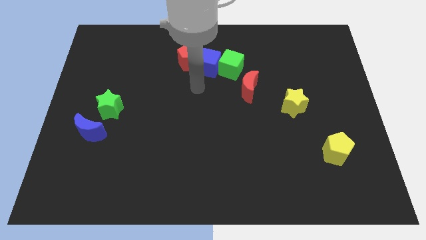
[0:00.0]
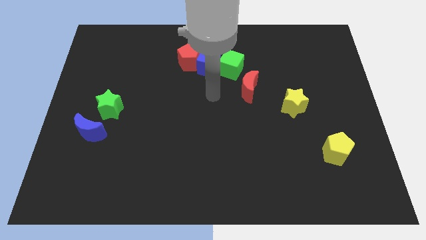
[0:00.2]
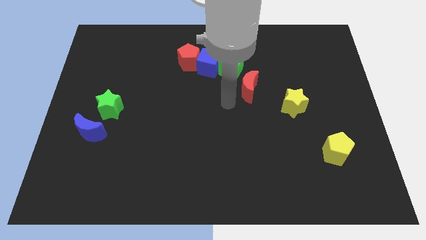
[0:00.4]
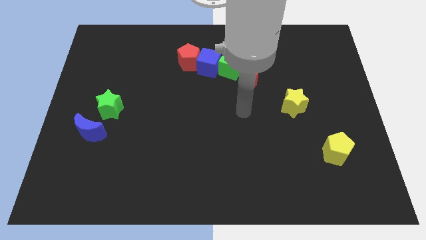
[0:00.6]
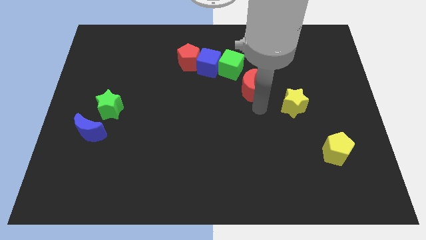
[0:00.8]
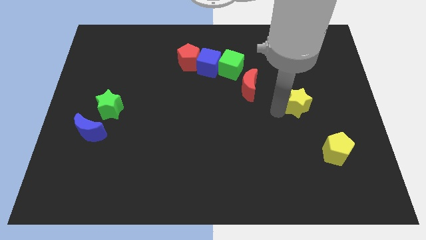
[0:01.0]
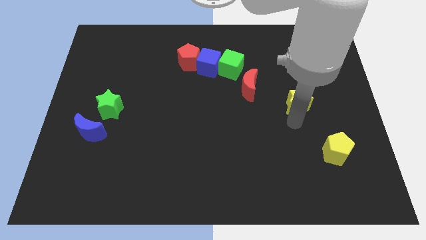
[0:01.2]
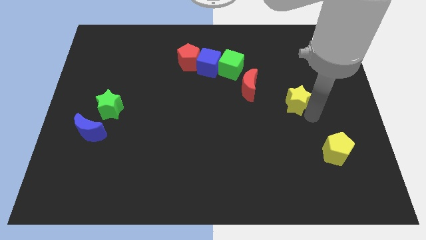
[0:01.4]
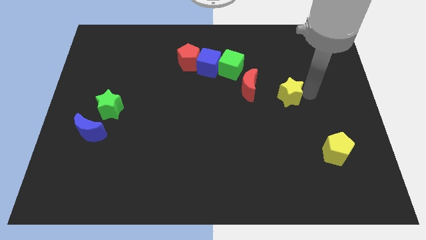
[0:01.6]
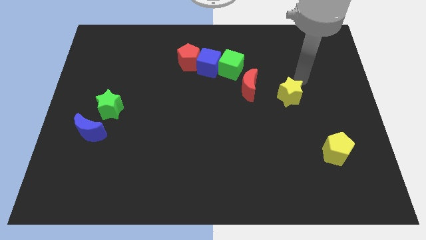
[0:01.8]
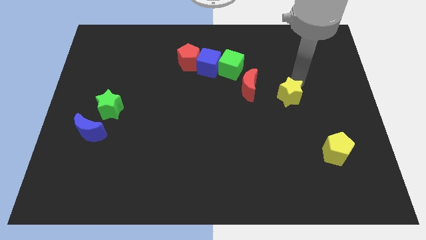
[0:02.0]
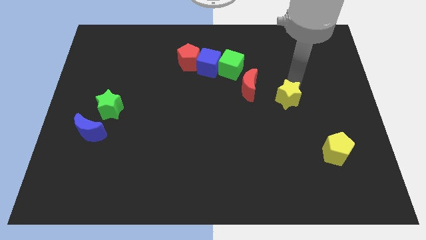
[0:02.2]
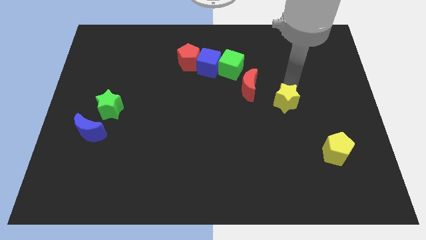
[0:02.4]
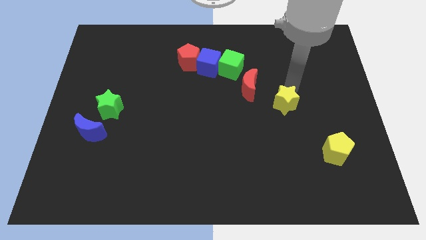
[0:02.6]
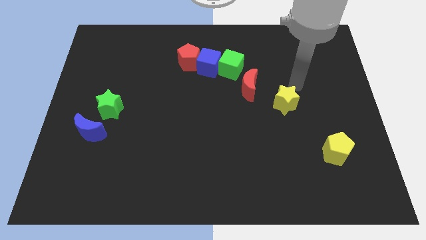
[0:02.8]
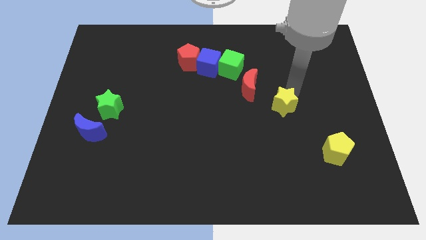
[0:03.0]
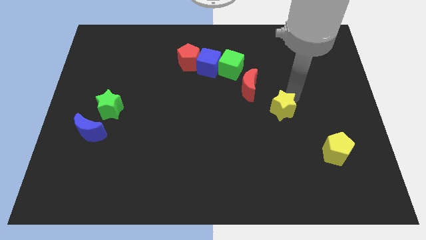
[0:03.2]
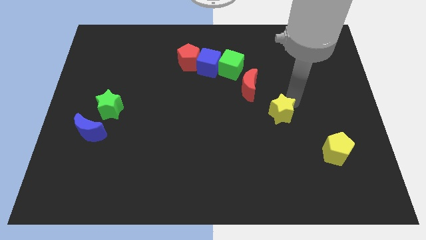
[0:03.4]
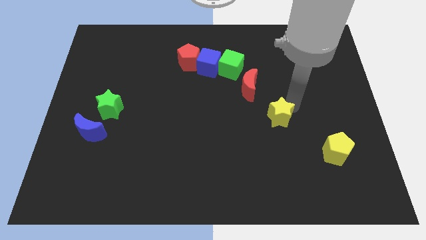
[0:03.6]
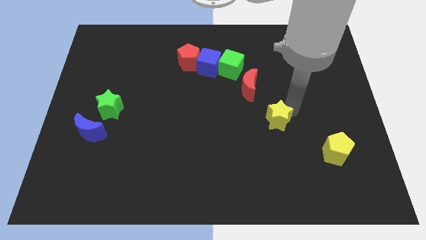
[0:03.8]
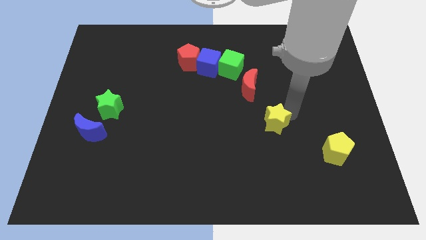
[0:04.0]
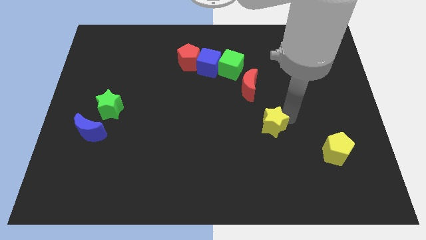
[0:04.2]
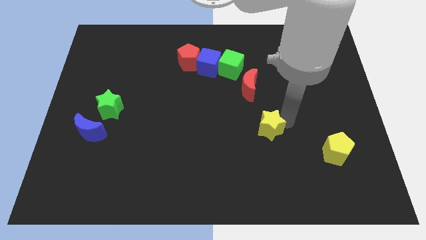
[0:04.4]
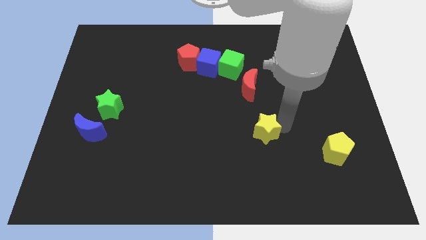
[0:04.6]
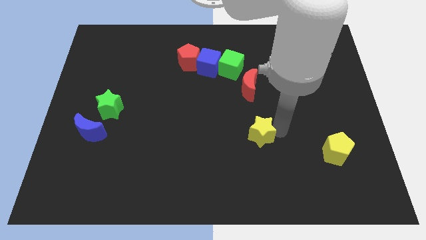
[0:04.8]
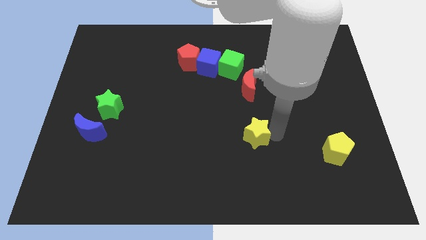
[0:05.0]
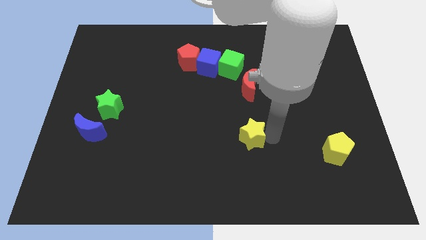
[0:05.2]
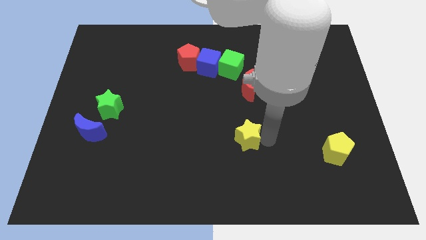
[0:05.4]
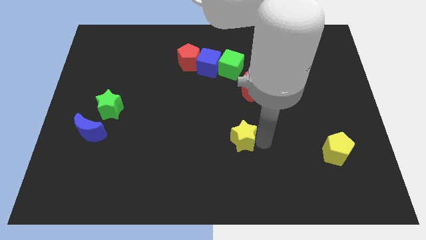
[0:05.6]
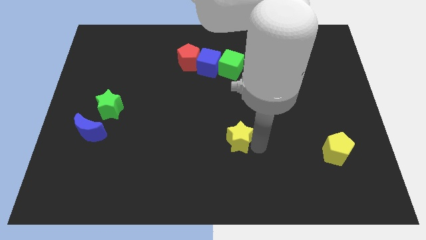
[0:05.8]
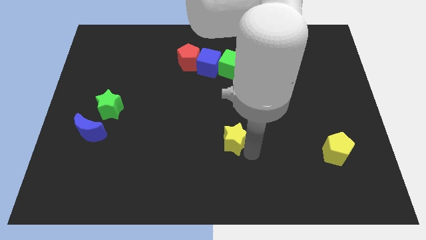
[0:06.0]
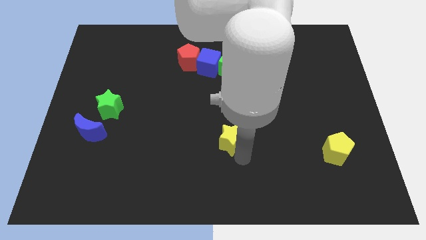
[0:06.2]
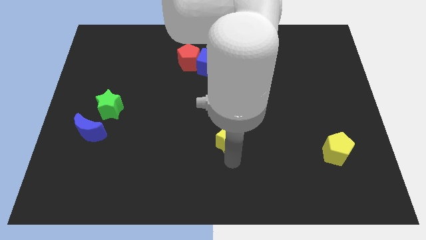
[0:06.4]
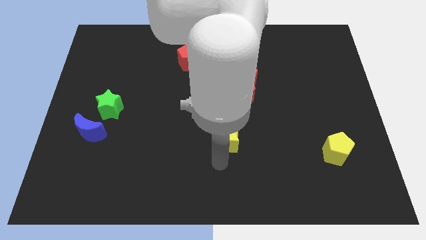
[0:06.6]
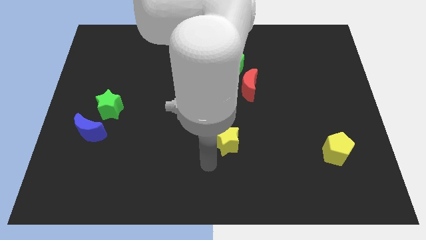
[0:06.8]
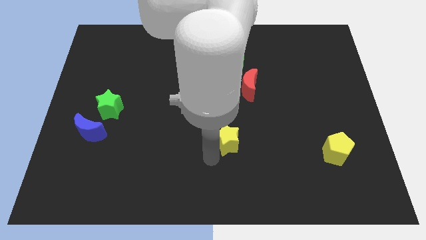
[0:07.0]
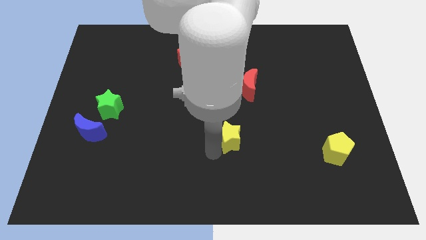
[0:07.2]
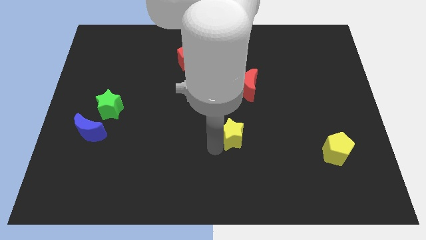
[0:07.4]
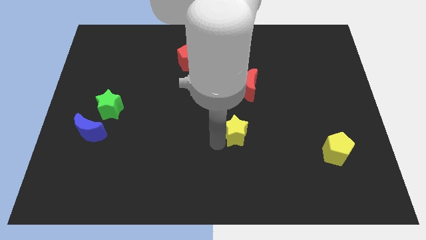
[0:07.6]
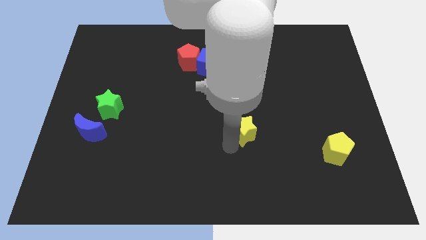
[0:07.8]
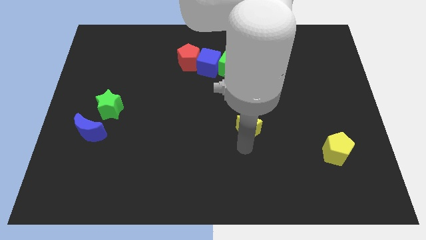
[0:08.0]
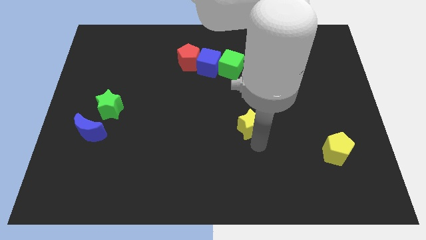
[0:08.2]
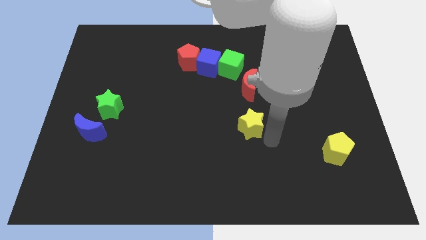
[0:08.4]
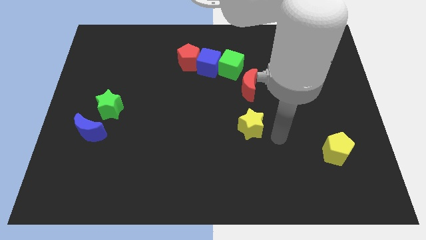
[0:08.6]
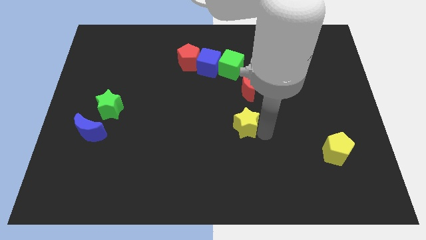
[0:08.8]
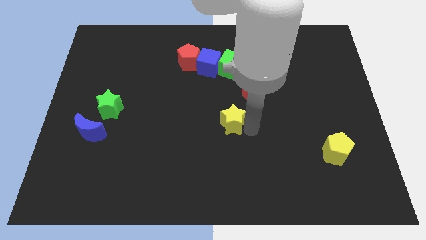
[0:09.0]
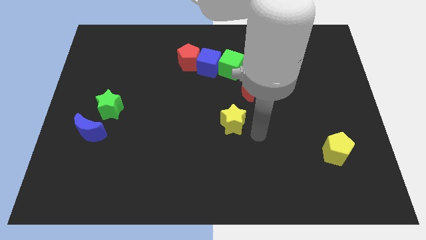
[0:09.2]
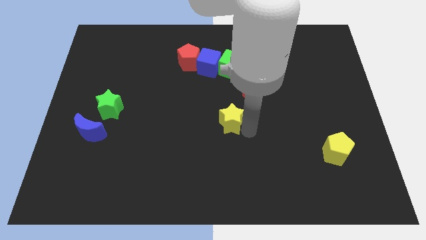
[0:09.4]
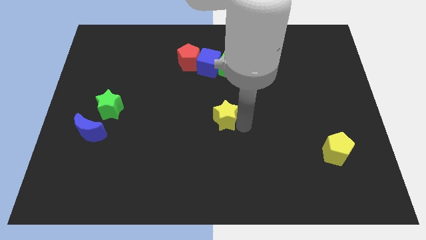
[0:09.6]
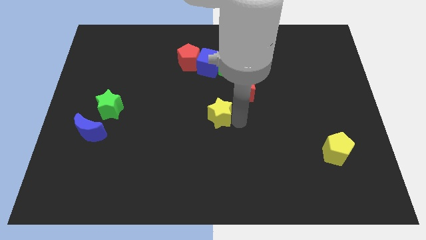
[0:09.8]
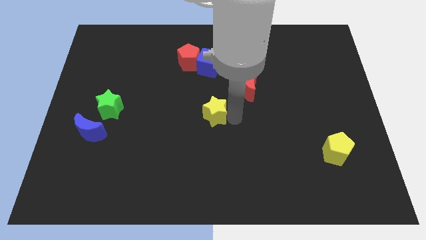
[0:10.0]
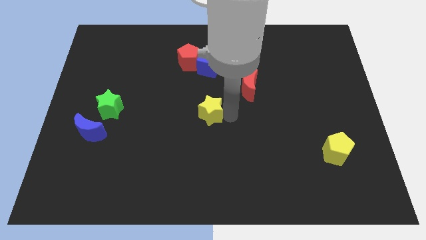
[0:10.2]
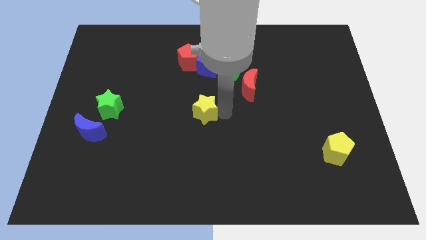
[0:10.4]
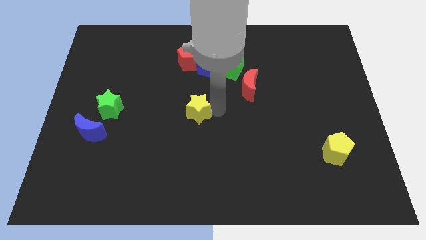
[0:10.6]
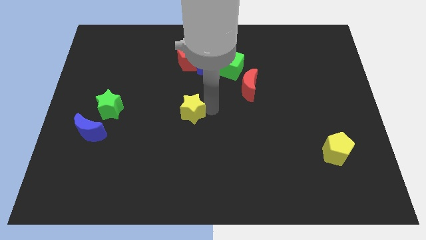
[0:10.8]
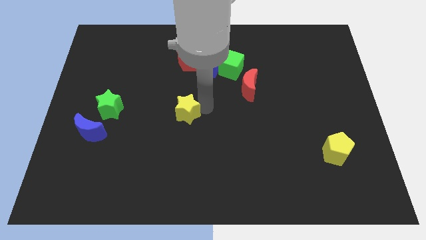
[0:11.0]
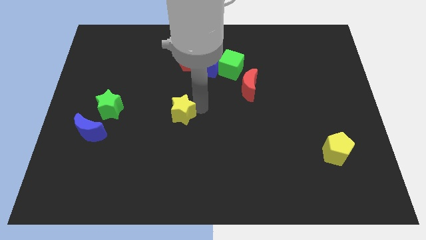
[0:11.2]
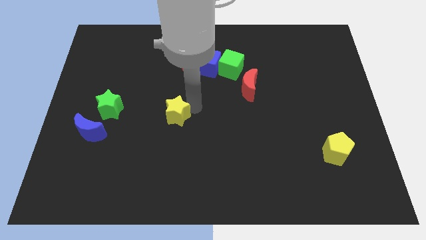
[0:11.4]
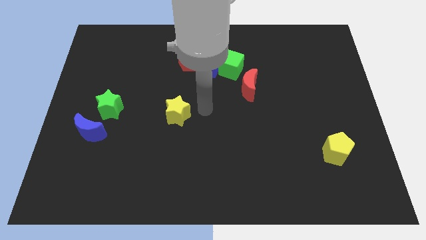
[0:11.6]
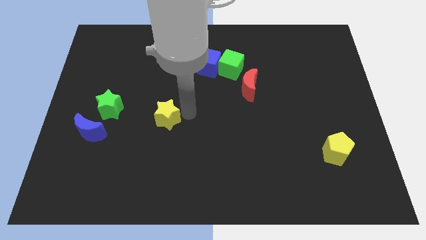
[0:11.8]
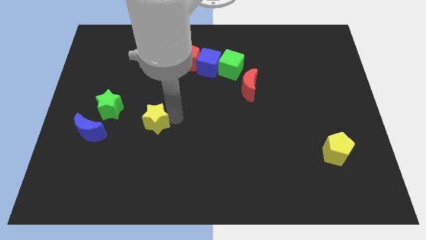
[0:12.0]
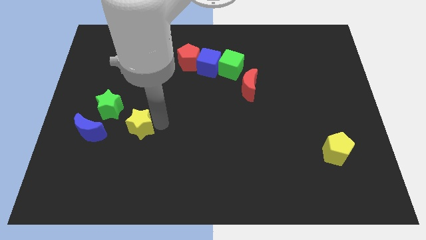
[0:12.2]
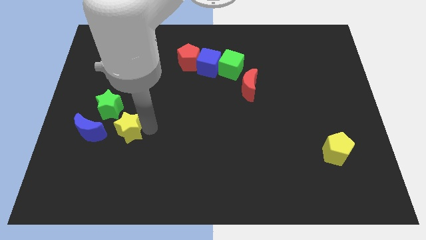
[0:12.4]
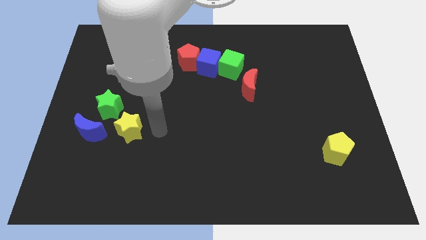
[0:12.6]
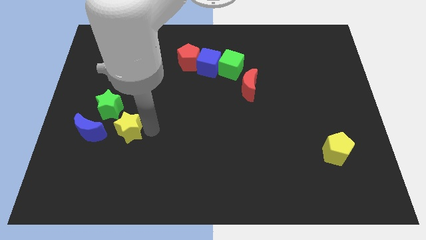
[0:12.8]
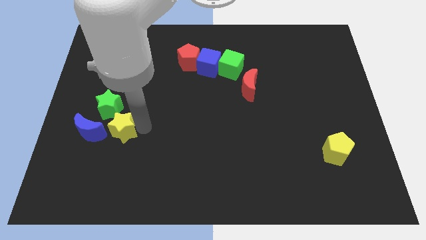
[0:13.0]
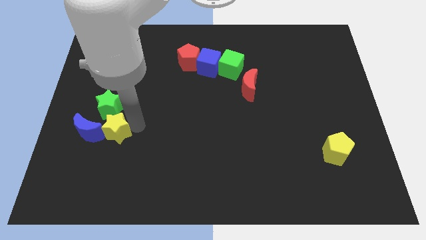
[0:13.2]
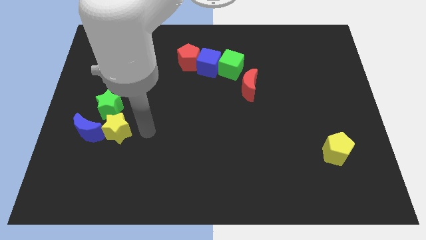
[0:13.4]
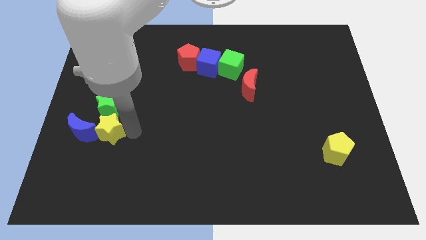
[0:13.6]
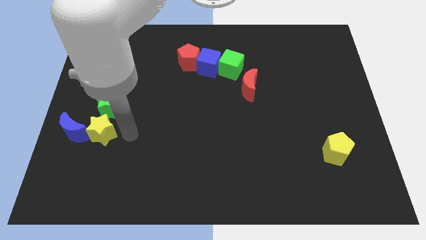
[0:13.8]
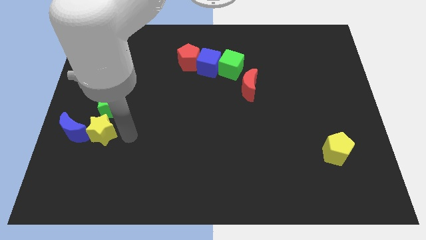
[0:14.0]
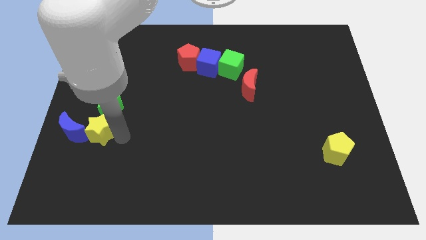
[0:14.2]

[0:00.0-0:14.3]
slide the yellow star close to the blue moon

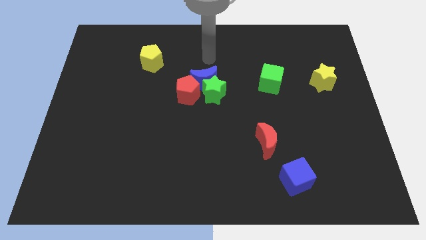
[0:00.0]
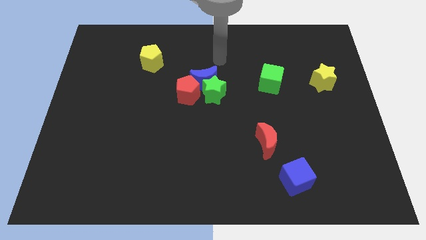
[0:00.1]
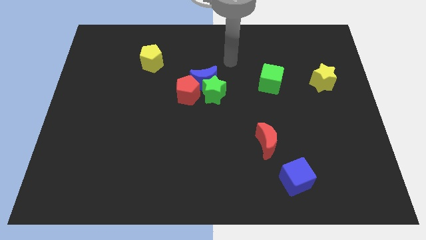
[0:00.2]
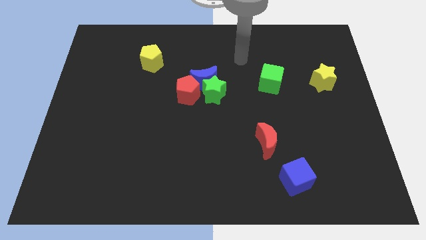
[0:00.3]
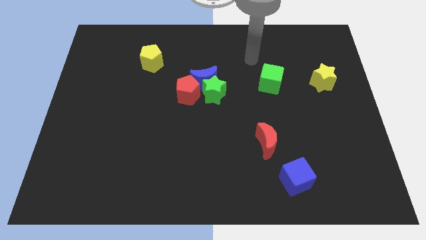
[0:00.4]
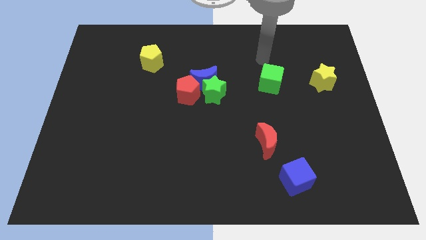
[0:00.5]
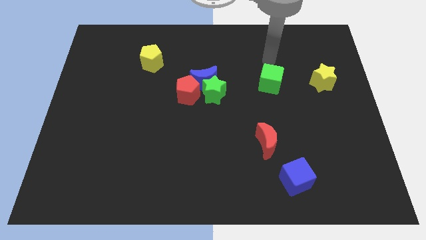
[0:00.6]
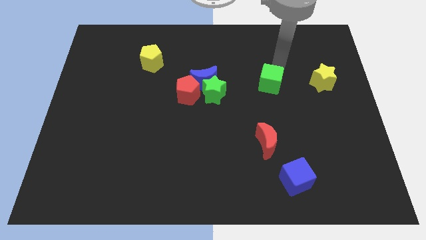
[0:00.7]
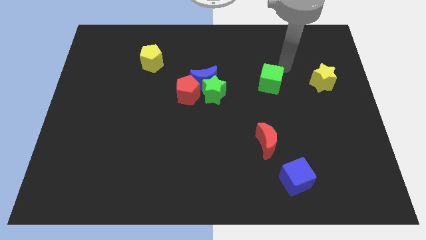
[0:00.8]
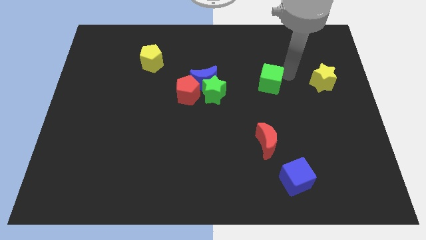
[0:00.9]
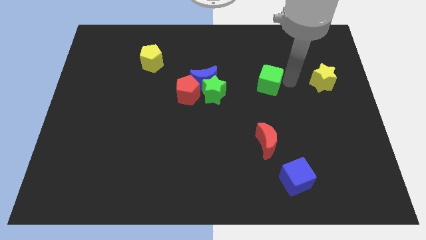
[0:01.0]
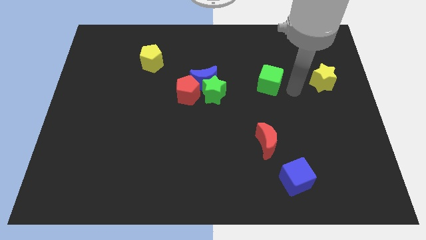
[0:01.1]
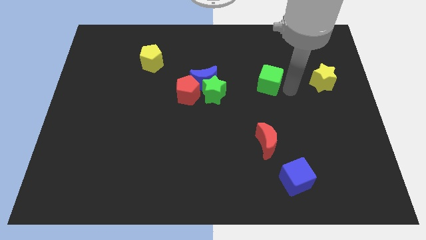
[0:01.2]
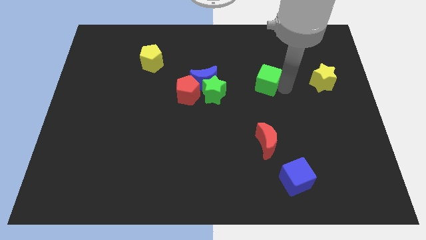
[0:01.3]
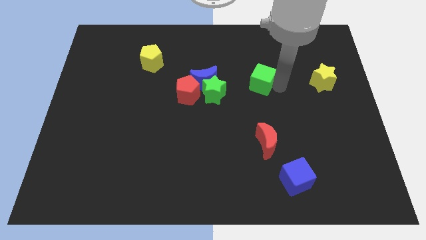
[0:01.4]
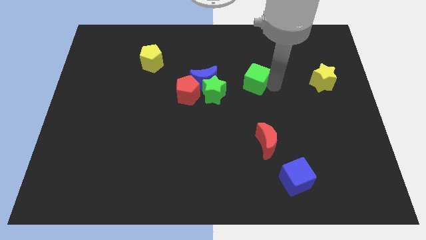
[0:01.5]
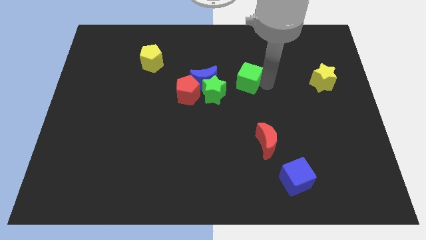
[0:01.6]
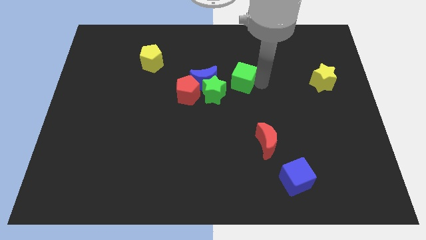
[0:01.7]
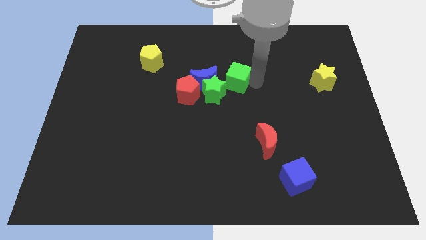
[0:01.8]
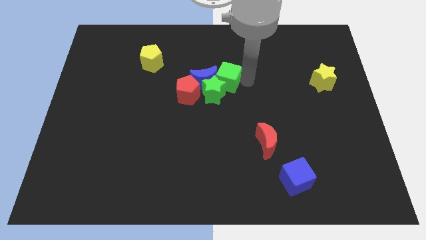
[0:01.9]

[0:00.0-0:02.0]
slide the green cube next to the blue moon
